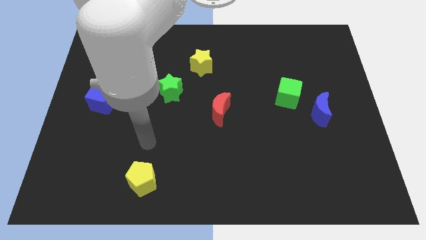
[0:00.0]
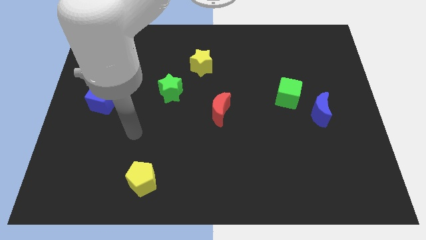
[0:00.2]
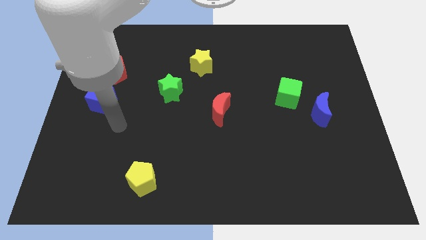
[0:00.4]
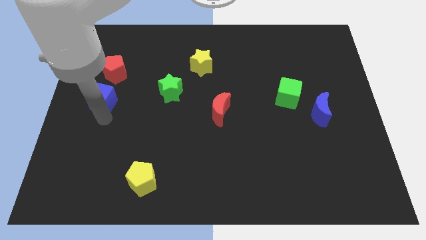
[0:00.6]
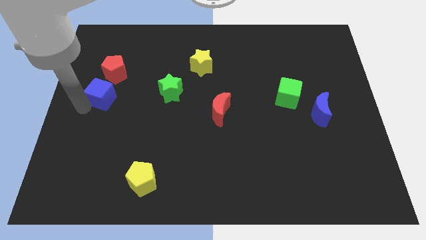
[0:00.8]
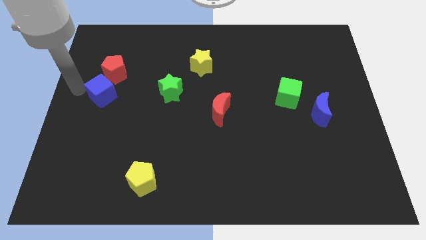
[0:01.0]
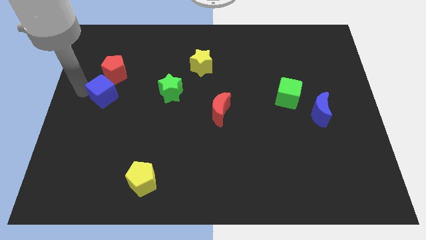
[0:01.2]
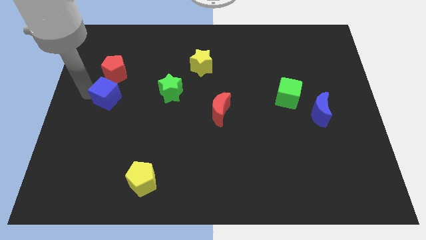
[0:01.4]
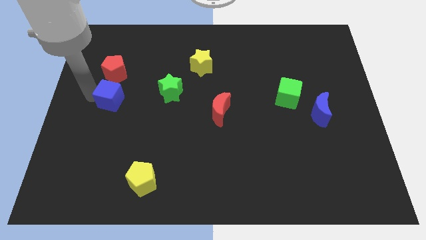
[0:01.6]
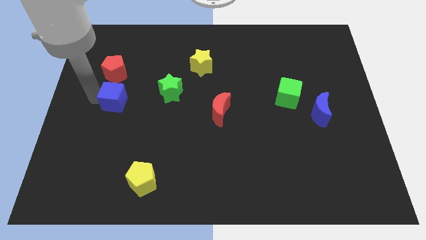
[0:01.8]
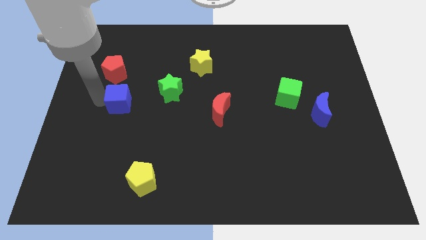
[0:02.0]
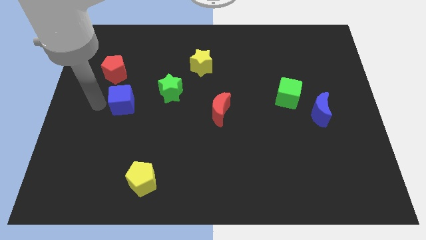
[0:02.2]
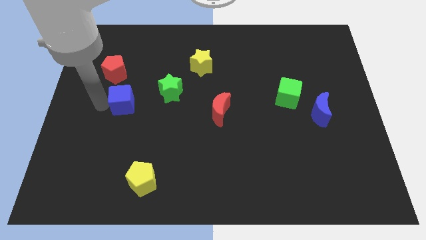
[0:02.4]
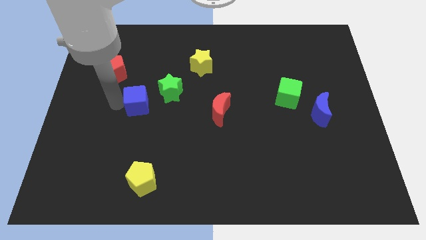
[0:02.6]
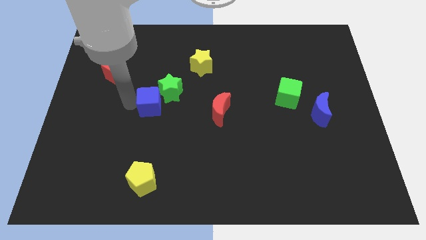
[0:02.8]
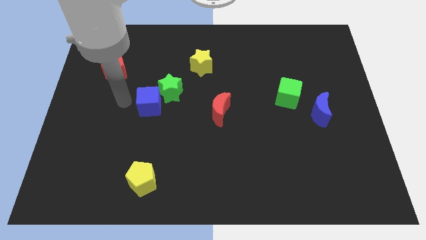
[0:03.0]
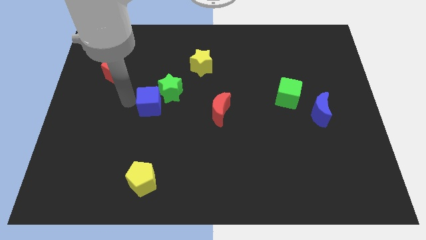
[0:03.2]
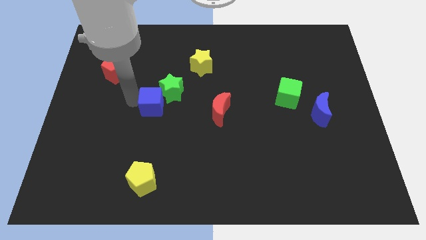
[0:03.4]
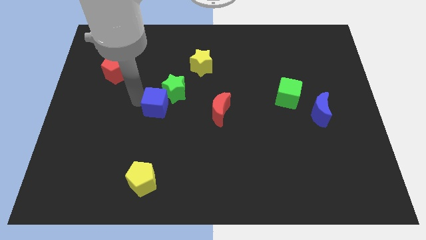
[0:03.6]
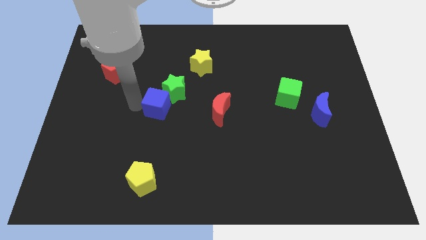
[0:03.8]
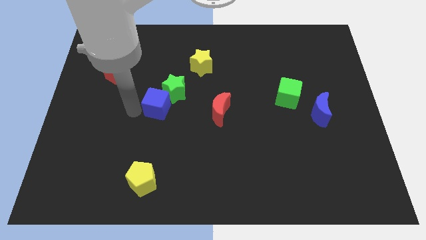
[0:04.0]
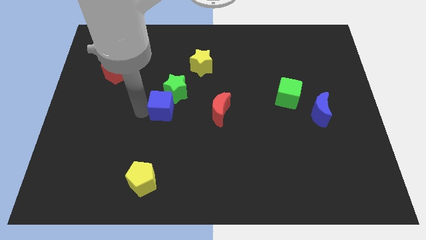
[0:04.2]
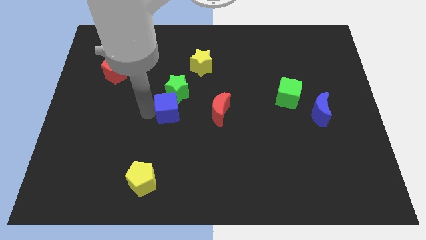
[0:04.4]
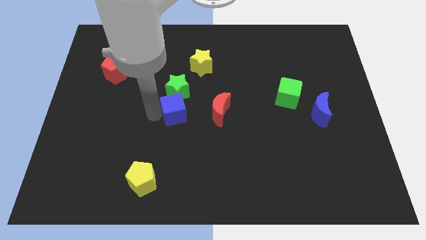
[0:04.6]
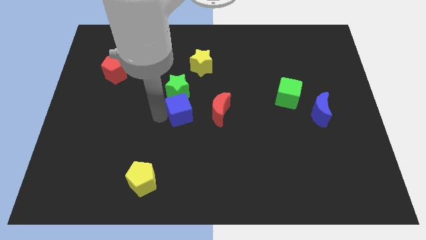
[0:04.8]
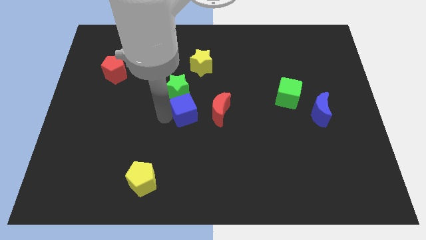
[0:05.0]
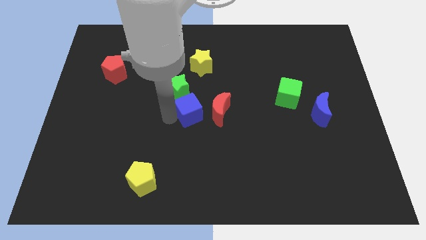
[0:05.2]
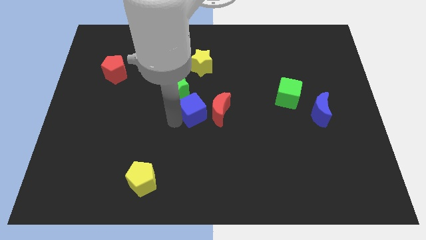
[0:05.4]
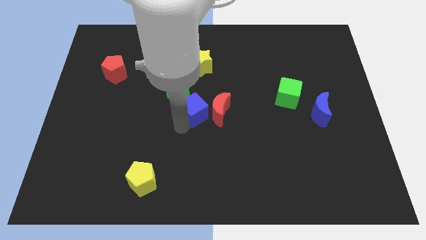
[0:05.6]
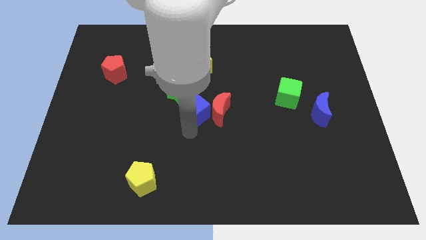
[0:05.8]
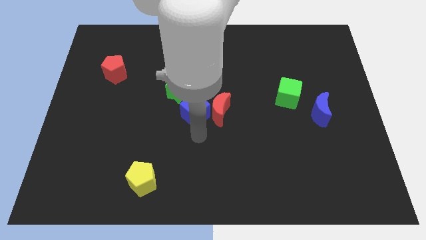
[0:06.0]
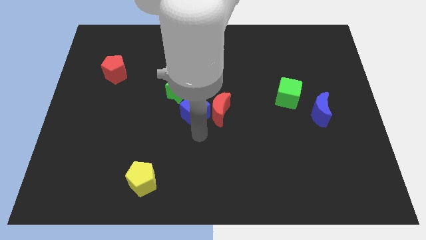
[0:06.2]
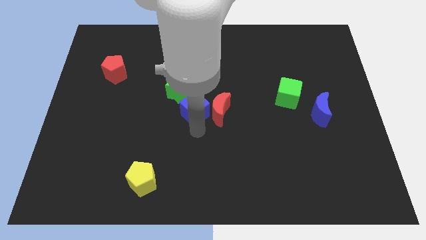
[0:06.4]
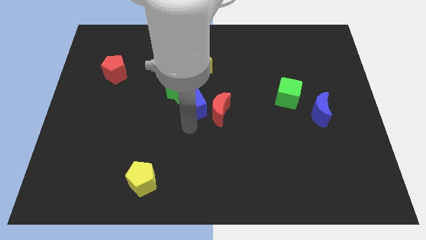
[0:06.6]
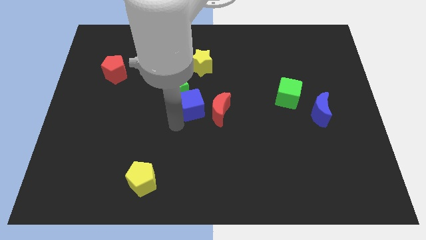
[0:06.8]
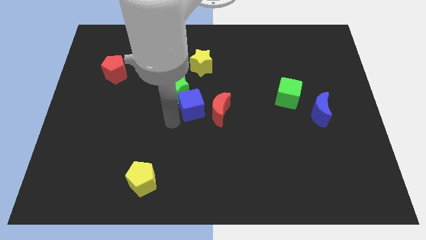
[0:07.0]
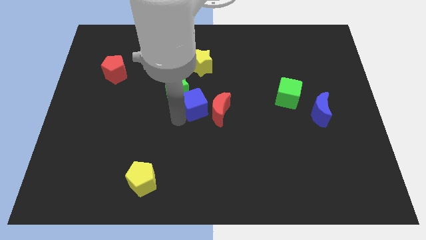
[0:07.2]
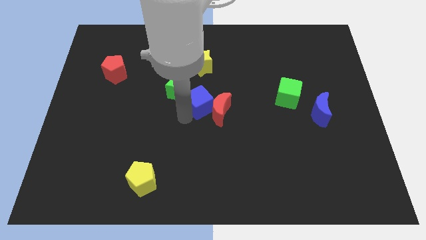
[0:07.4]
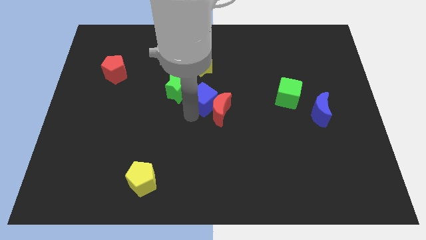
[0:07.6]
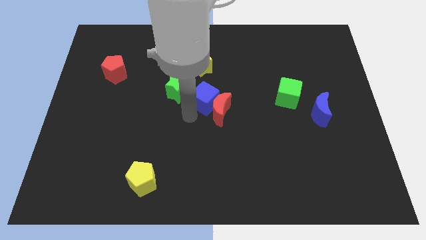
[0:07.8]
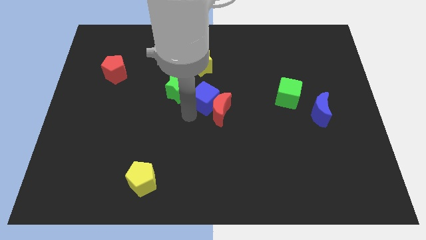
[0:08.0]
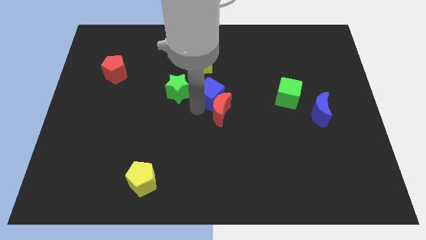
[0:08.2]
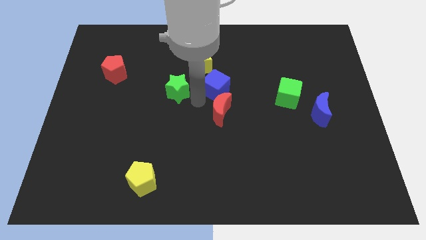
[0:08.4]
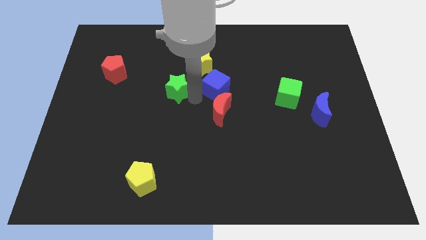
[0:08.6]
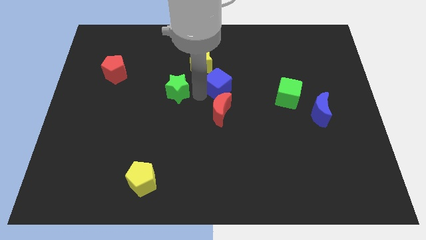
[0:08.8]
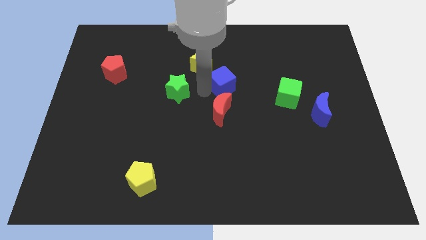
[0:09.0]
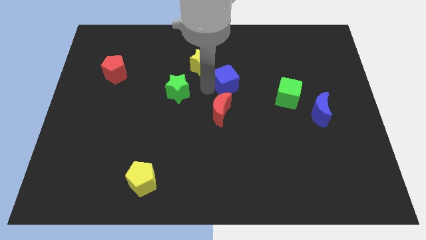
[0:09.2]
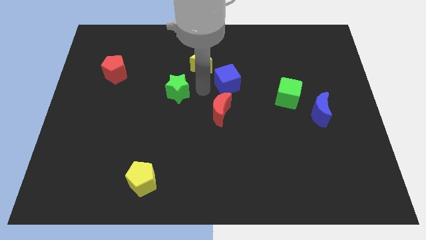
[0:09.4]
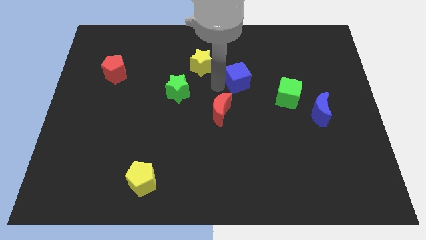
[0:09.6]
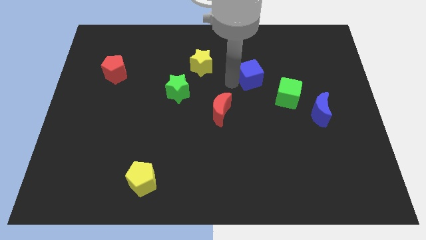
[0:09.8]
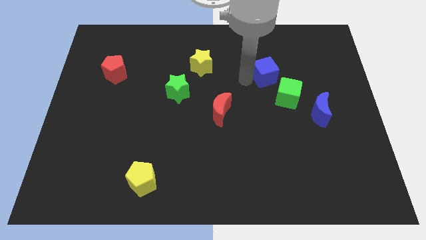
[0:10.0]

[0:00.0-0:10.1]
slide the blue cube above the green cube

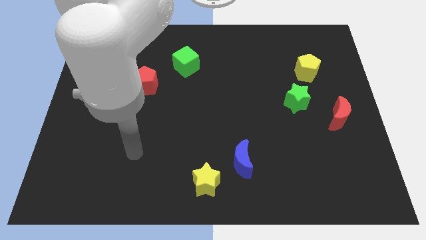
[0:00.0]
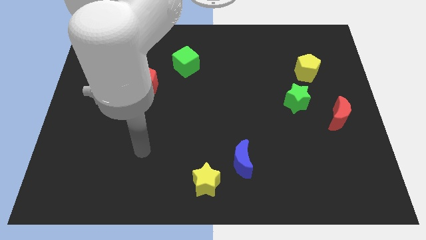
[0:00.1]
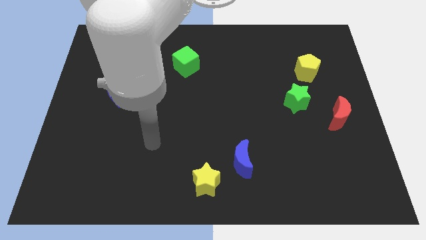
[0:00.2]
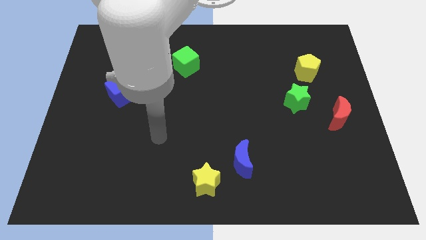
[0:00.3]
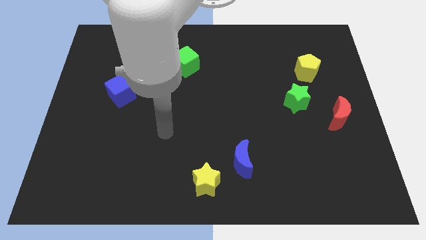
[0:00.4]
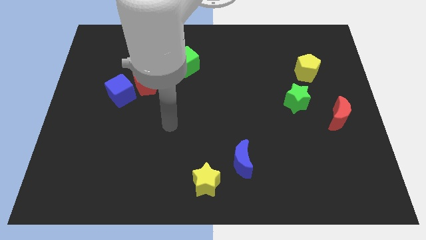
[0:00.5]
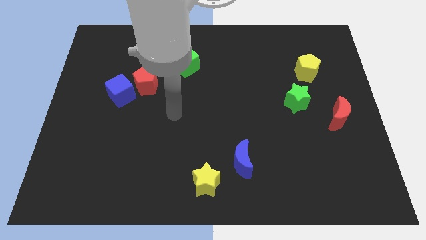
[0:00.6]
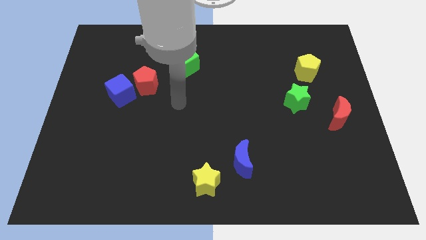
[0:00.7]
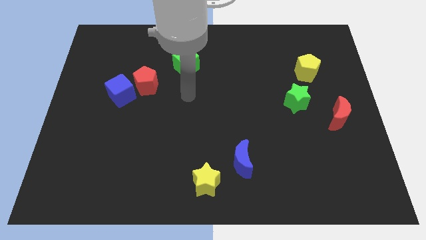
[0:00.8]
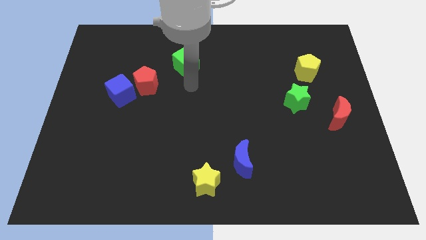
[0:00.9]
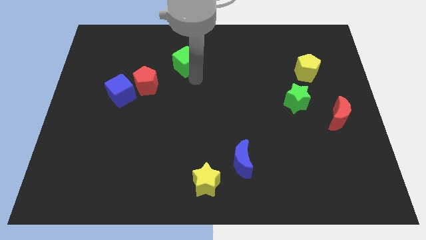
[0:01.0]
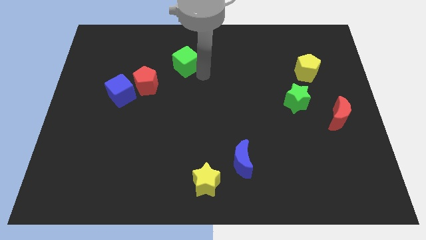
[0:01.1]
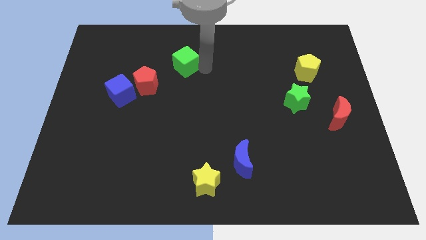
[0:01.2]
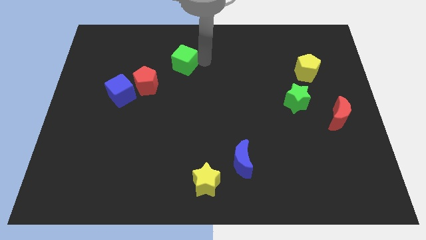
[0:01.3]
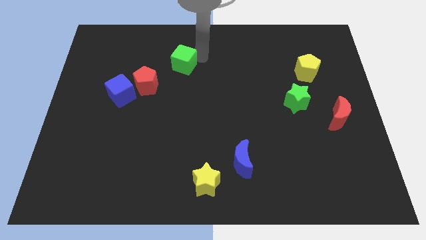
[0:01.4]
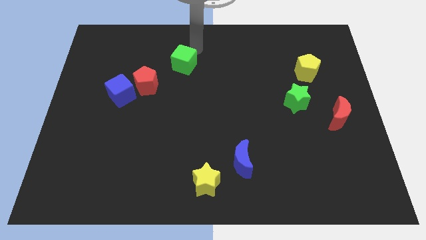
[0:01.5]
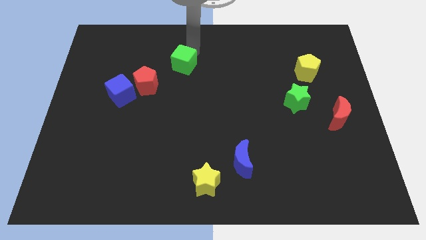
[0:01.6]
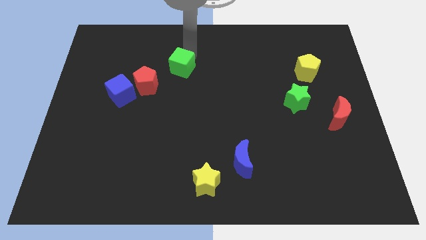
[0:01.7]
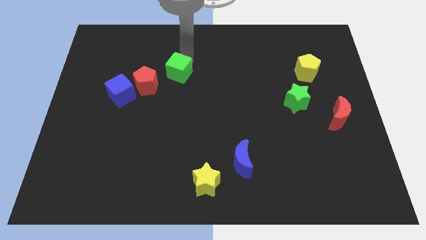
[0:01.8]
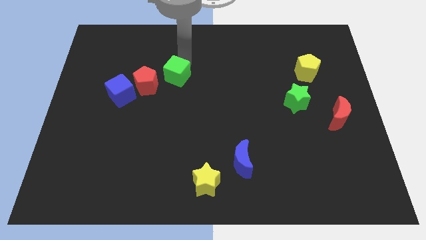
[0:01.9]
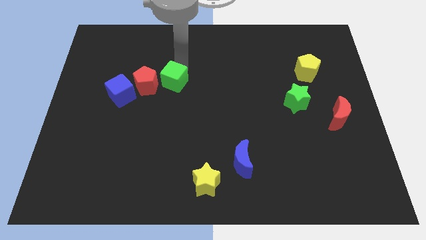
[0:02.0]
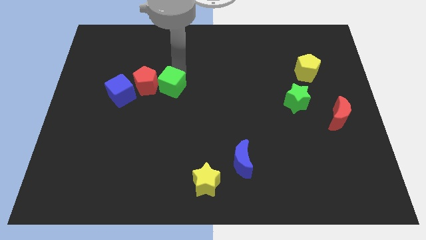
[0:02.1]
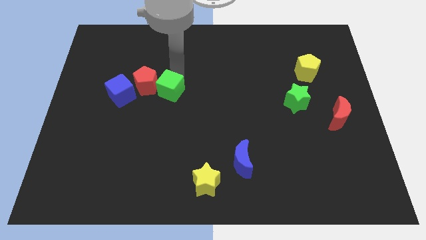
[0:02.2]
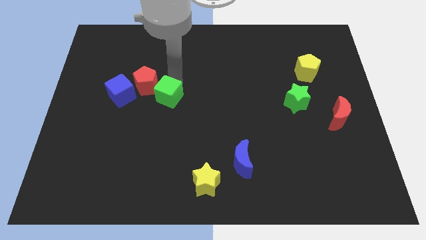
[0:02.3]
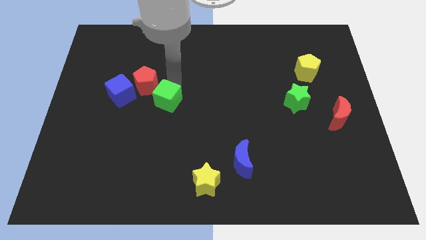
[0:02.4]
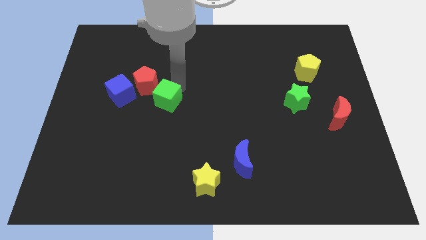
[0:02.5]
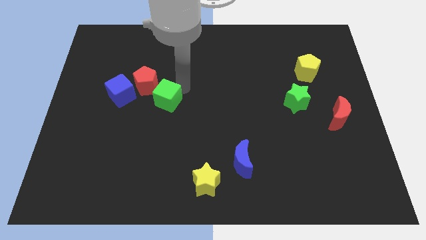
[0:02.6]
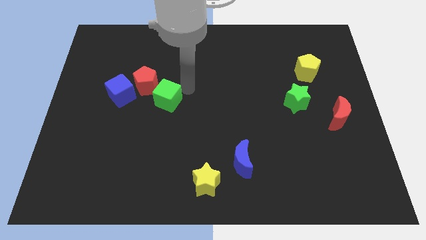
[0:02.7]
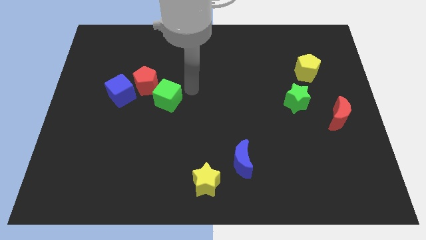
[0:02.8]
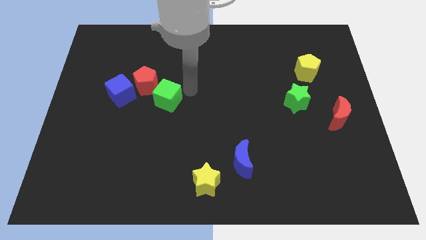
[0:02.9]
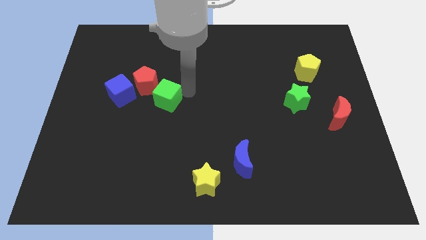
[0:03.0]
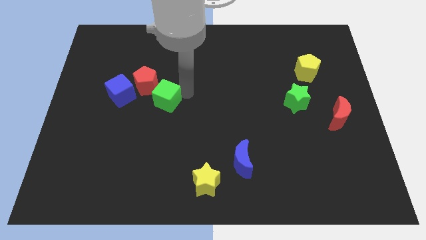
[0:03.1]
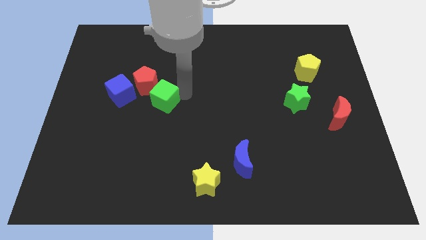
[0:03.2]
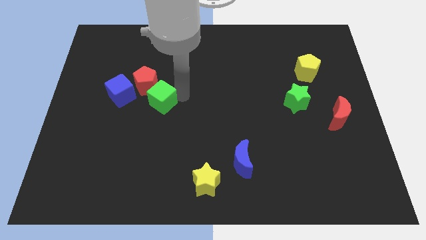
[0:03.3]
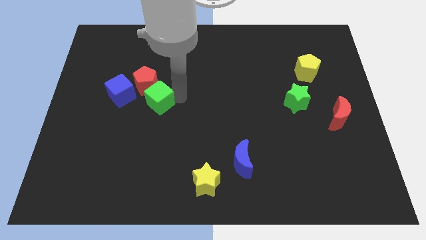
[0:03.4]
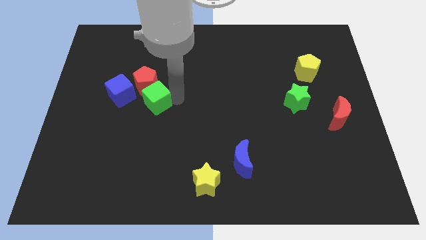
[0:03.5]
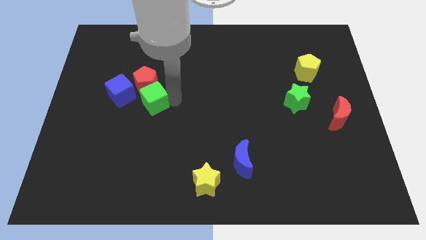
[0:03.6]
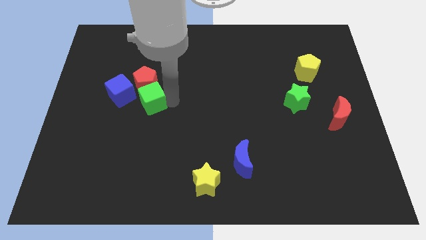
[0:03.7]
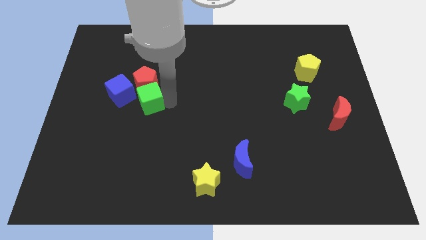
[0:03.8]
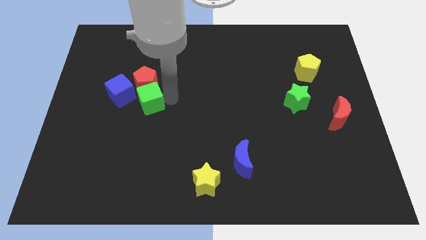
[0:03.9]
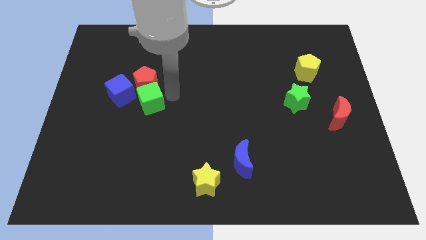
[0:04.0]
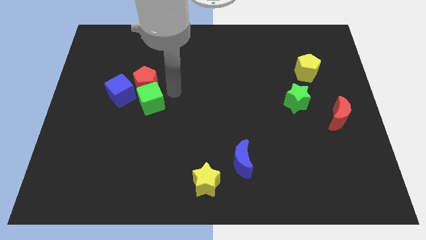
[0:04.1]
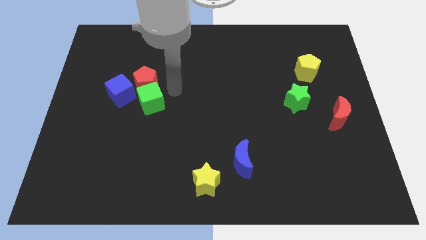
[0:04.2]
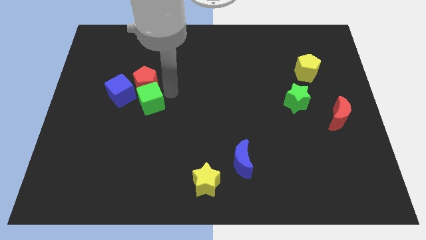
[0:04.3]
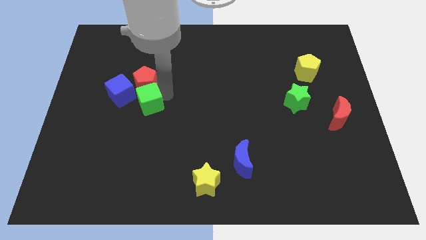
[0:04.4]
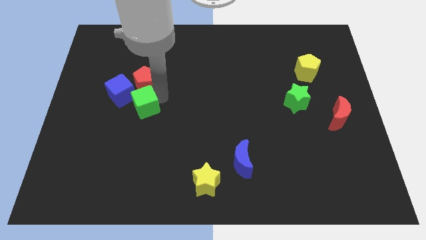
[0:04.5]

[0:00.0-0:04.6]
put the green cube to the bottom left side of the red pentagon
